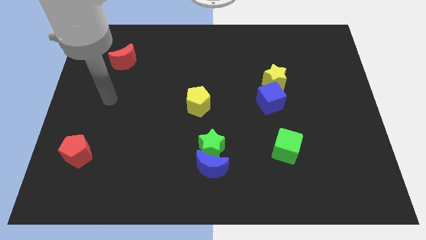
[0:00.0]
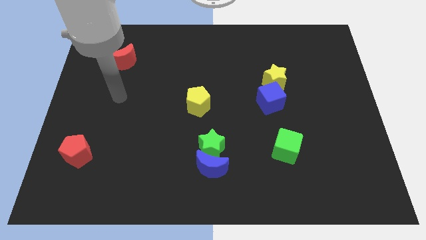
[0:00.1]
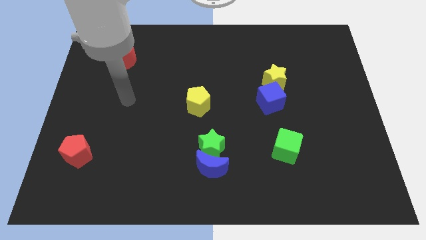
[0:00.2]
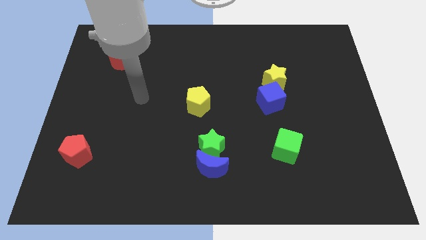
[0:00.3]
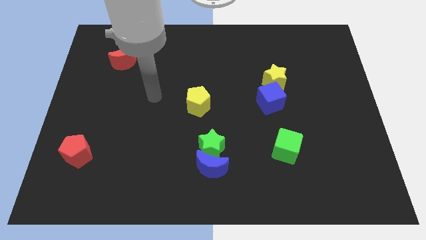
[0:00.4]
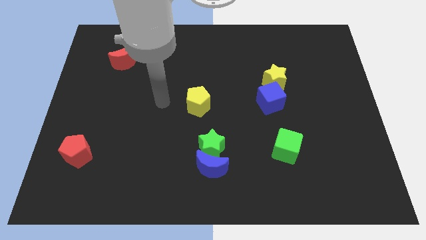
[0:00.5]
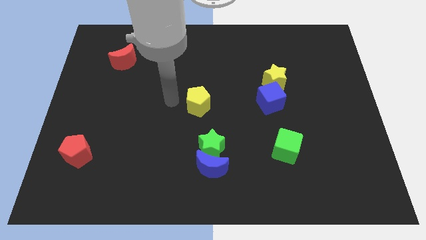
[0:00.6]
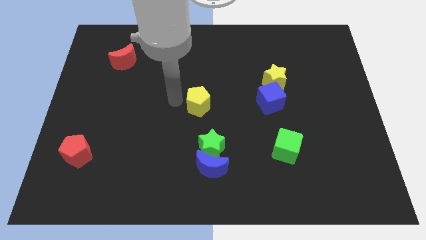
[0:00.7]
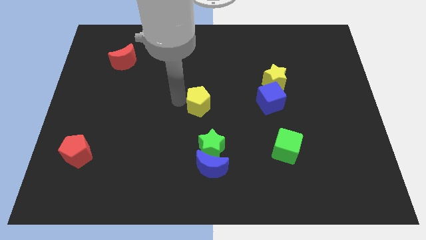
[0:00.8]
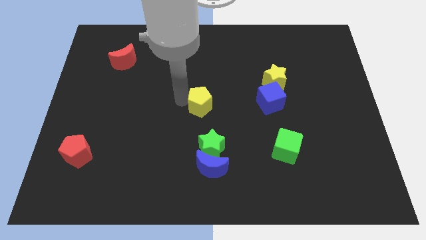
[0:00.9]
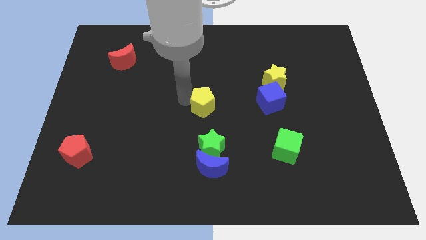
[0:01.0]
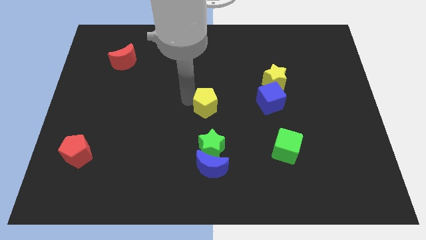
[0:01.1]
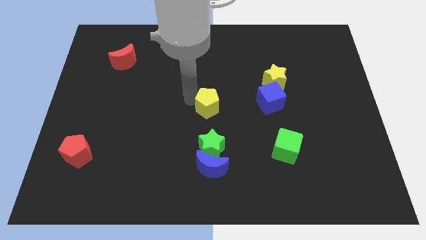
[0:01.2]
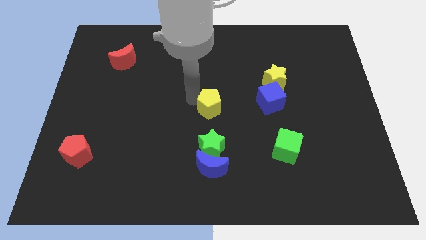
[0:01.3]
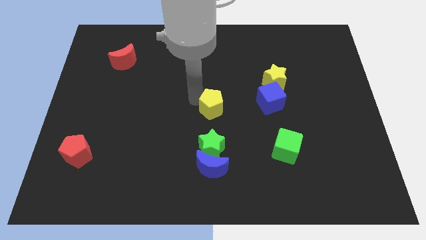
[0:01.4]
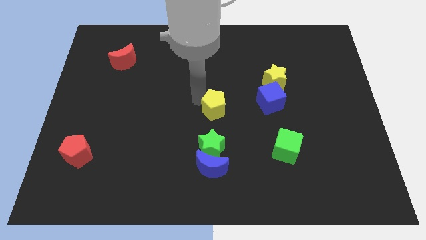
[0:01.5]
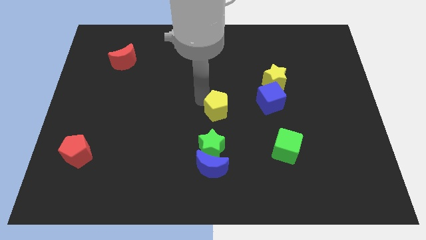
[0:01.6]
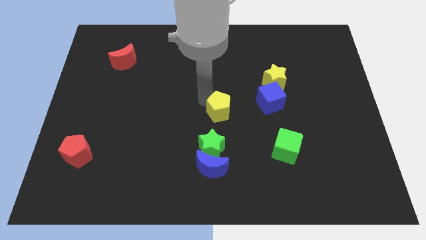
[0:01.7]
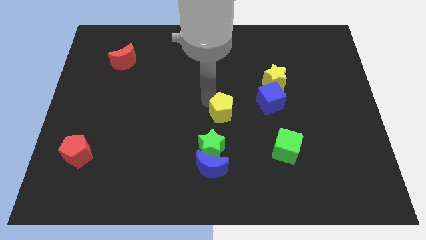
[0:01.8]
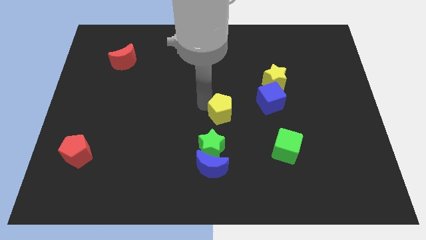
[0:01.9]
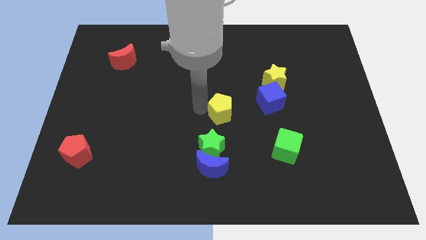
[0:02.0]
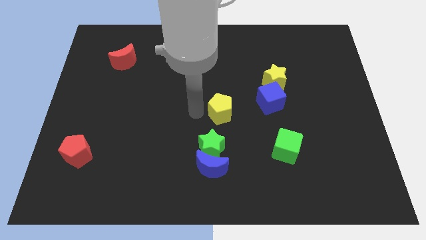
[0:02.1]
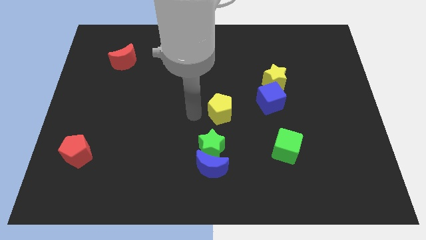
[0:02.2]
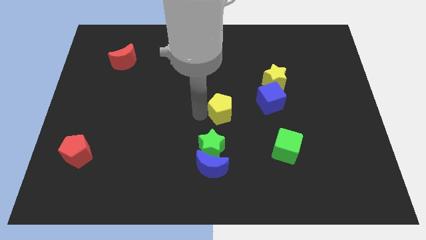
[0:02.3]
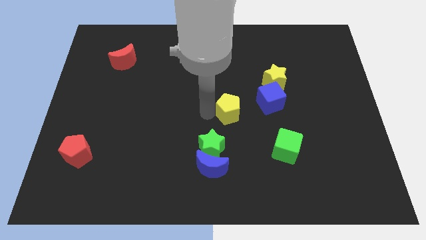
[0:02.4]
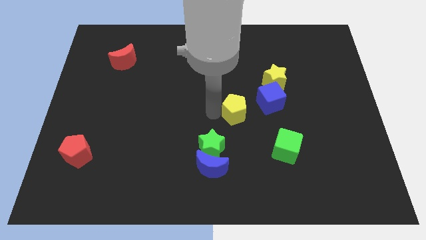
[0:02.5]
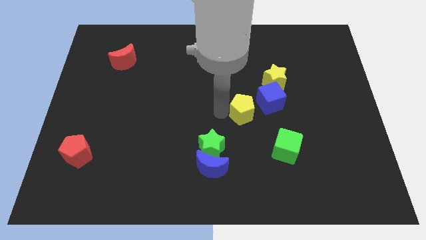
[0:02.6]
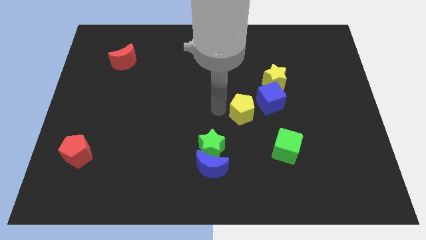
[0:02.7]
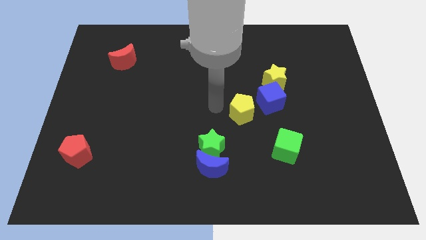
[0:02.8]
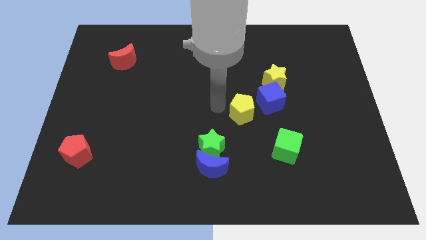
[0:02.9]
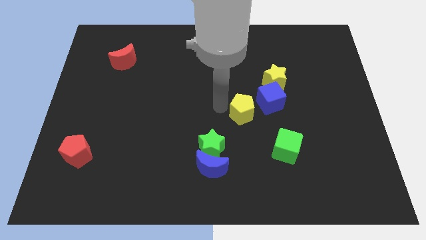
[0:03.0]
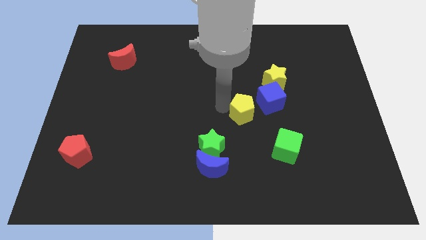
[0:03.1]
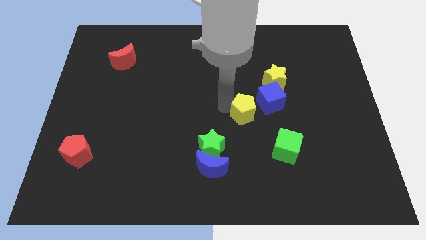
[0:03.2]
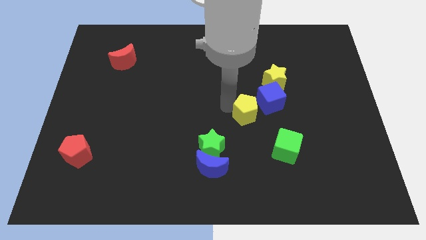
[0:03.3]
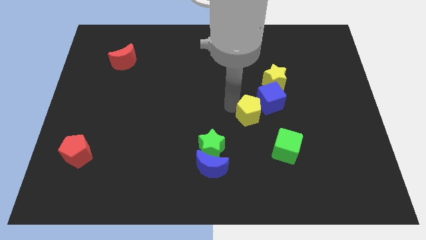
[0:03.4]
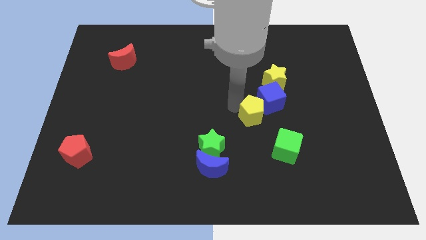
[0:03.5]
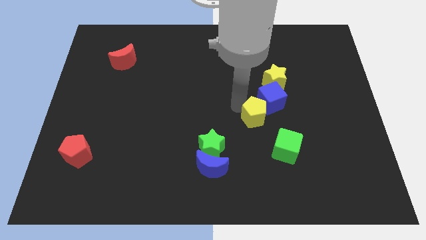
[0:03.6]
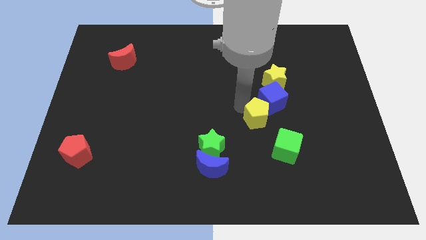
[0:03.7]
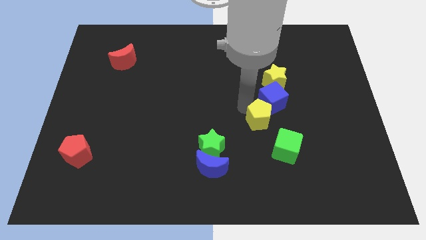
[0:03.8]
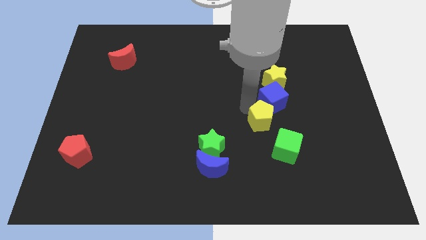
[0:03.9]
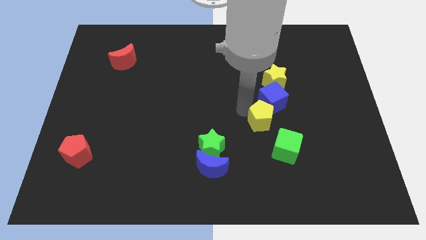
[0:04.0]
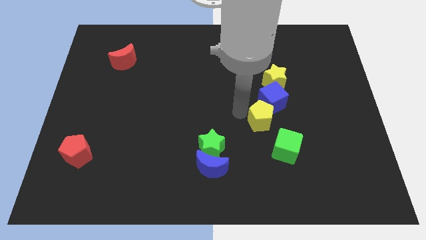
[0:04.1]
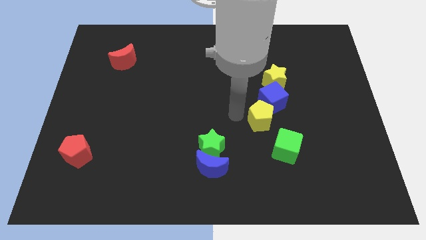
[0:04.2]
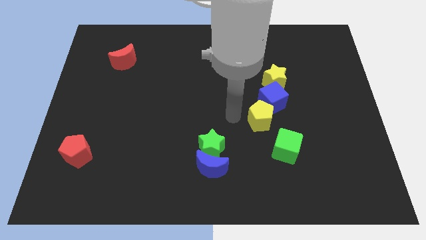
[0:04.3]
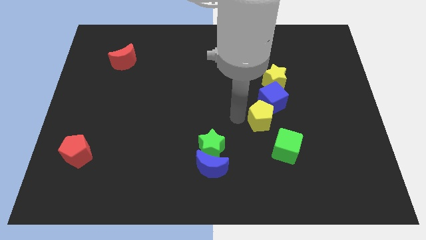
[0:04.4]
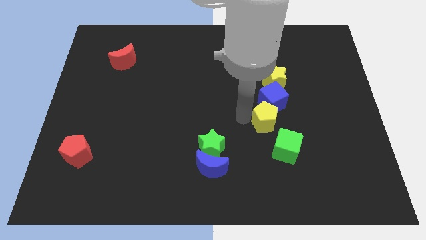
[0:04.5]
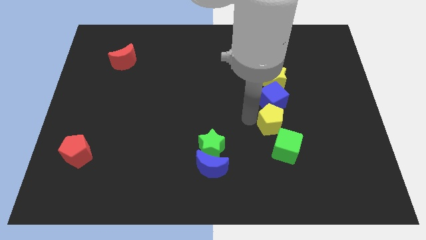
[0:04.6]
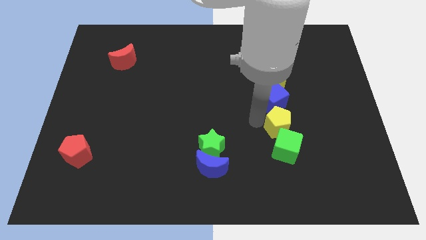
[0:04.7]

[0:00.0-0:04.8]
move the yellow pentagon to the bottom right side of the blue cube

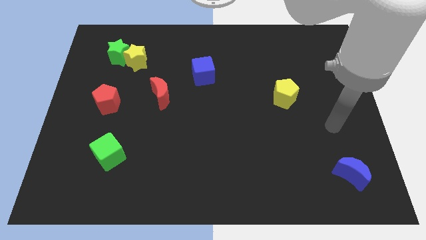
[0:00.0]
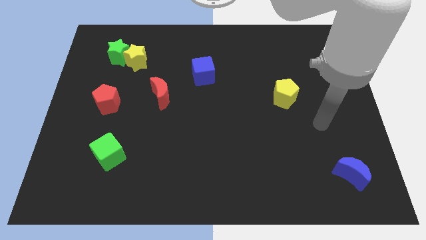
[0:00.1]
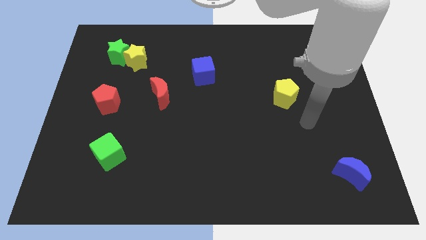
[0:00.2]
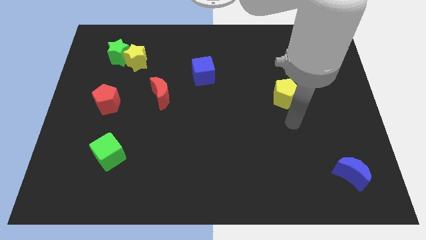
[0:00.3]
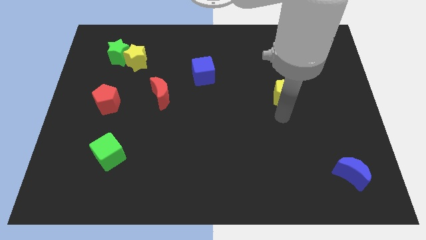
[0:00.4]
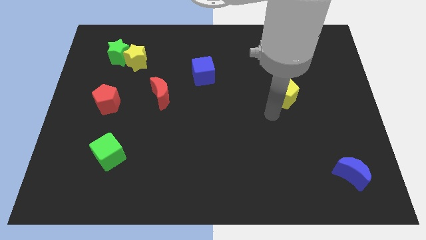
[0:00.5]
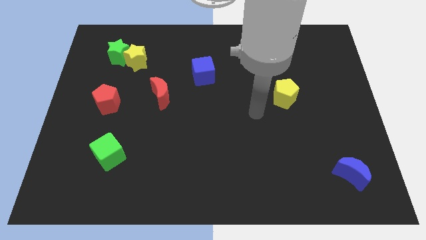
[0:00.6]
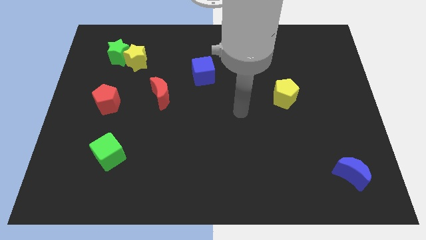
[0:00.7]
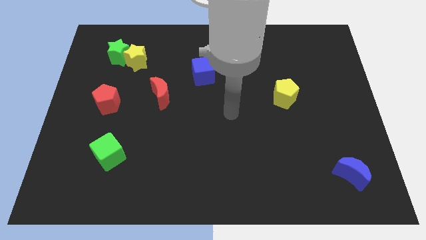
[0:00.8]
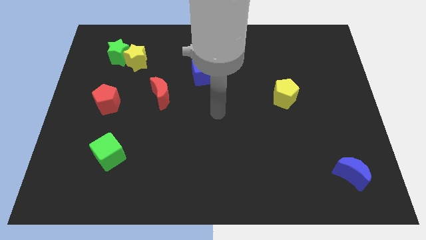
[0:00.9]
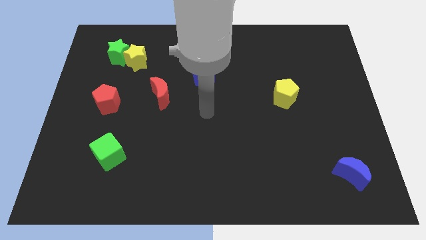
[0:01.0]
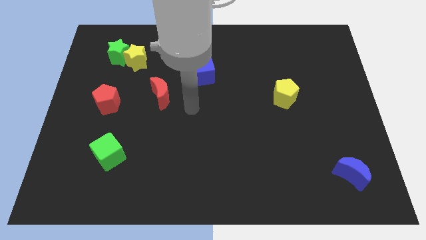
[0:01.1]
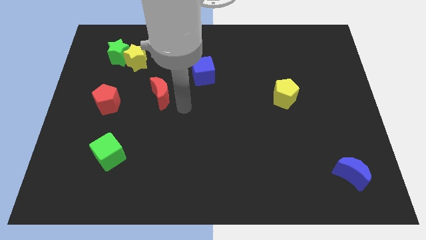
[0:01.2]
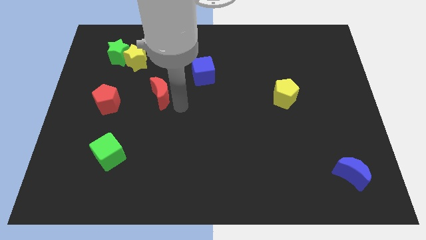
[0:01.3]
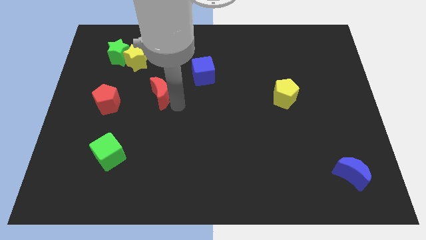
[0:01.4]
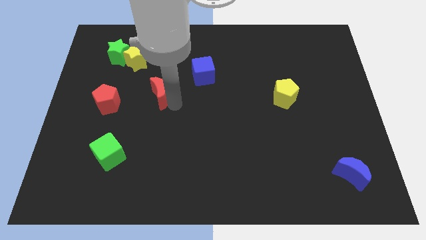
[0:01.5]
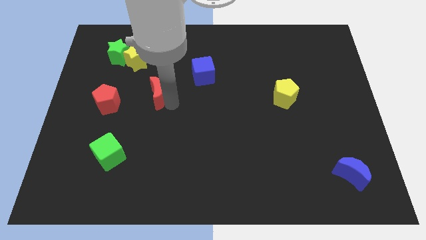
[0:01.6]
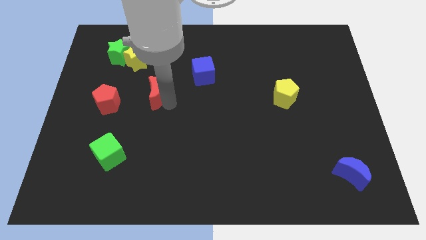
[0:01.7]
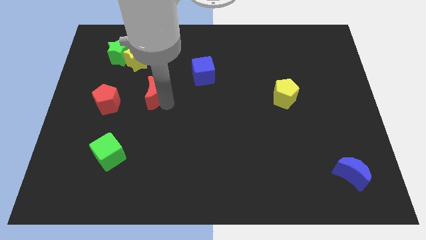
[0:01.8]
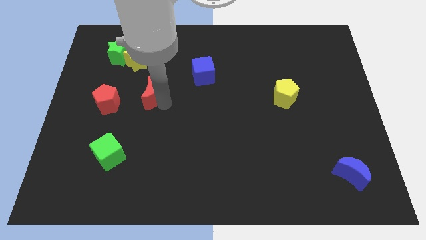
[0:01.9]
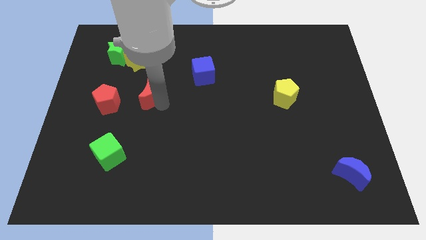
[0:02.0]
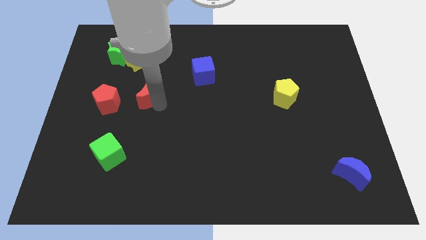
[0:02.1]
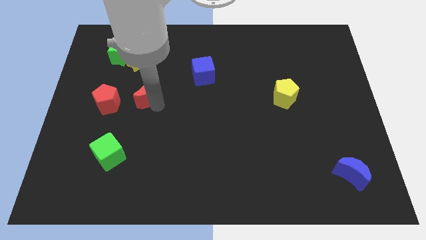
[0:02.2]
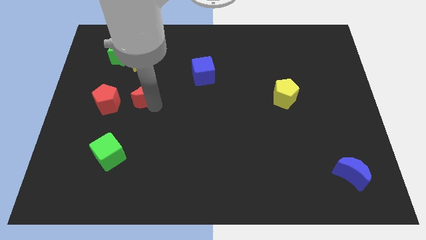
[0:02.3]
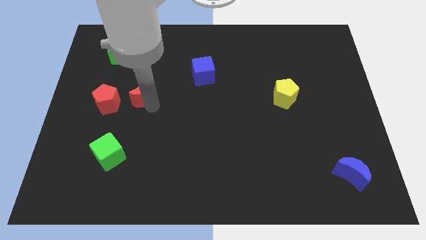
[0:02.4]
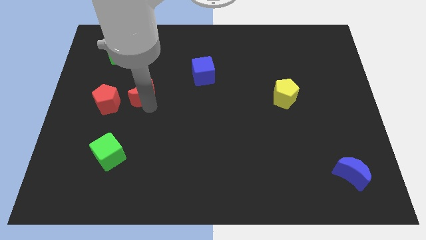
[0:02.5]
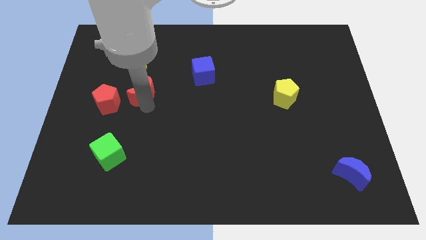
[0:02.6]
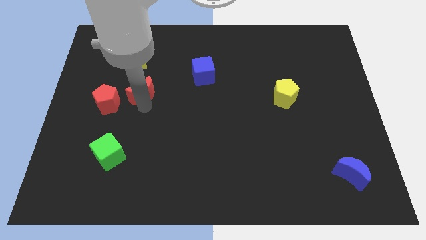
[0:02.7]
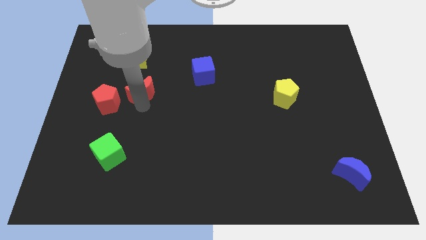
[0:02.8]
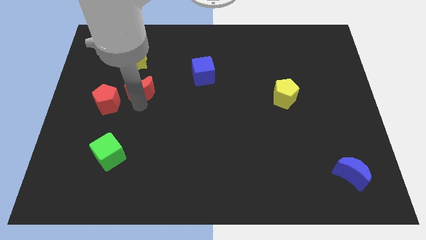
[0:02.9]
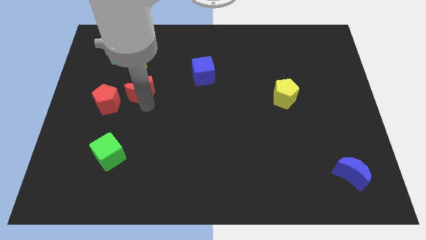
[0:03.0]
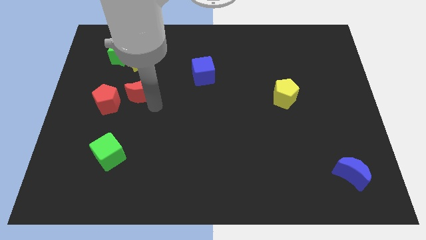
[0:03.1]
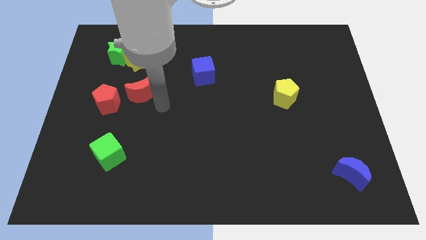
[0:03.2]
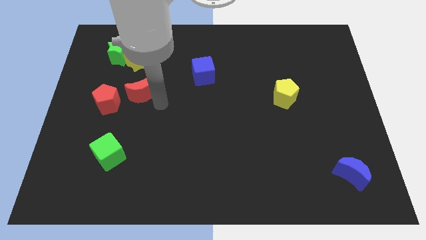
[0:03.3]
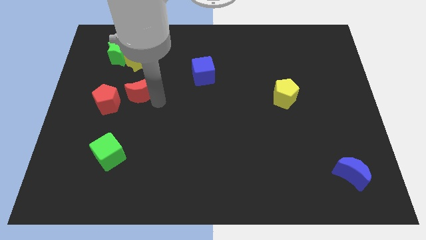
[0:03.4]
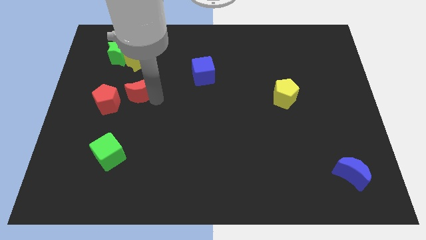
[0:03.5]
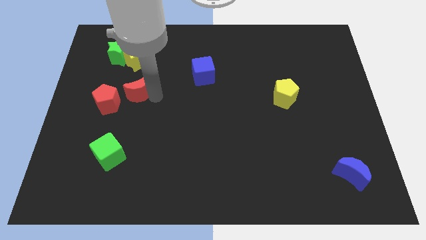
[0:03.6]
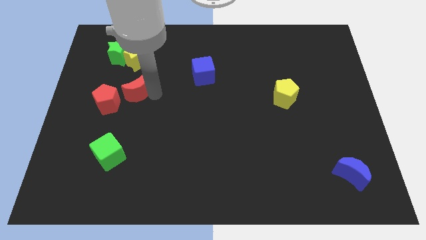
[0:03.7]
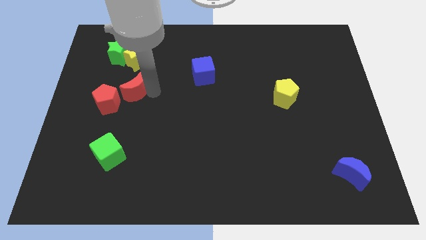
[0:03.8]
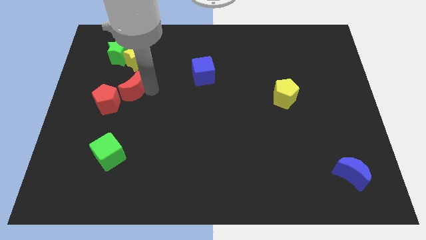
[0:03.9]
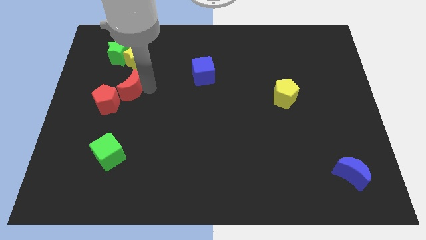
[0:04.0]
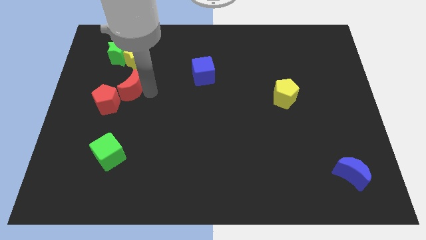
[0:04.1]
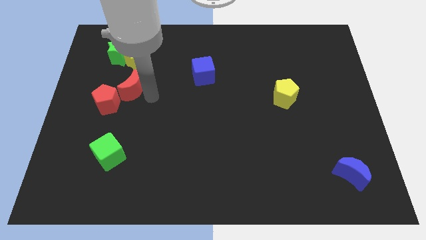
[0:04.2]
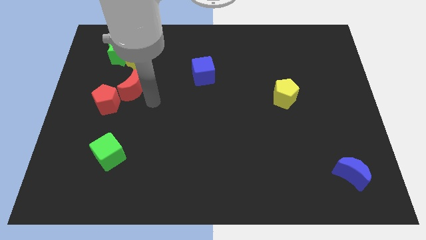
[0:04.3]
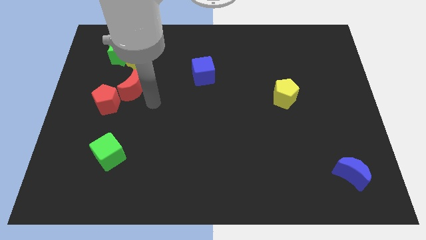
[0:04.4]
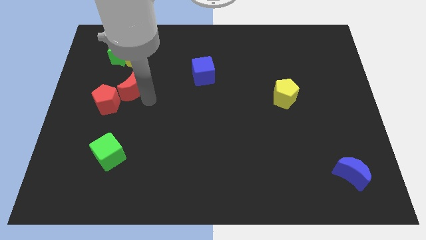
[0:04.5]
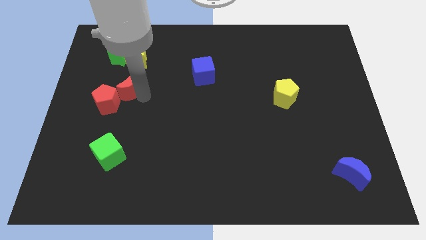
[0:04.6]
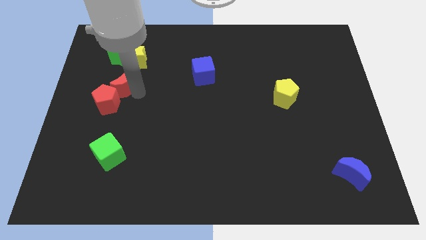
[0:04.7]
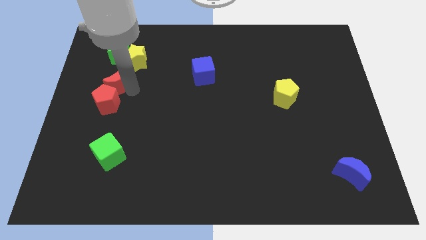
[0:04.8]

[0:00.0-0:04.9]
push the red moon diagonally down and to the left of the yellow star
